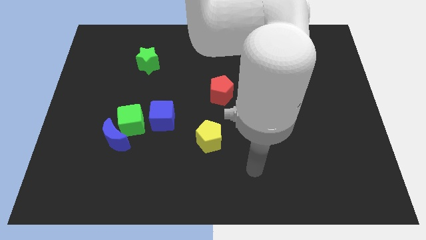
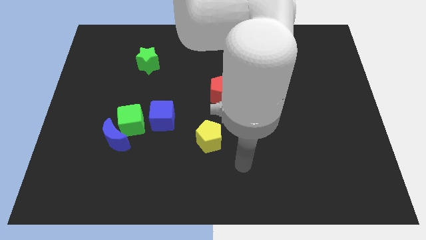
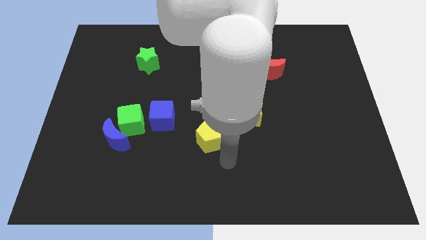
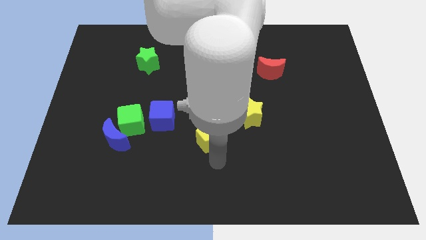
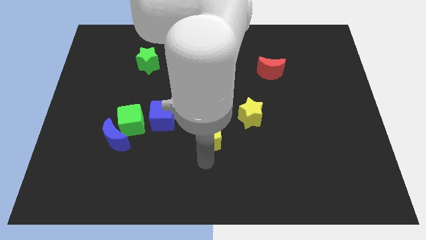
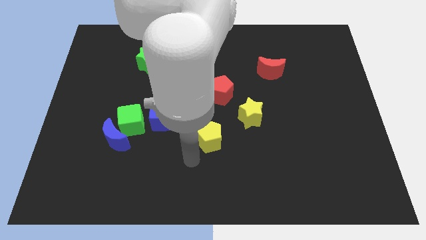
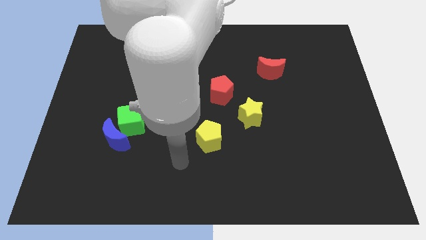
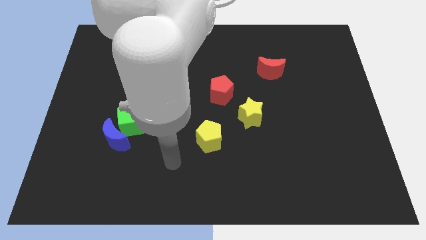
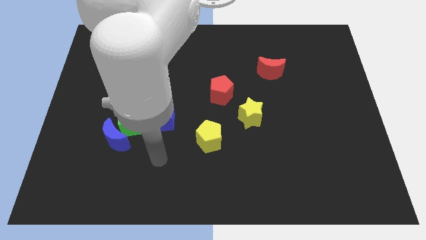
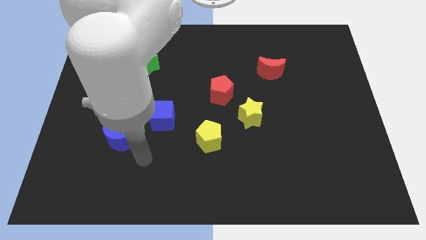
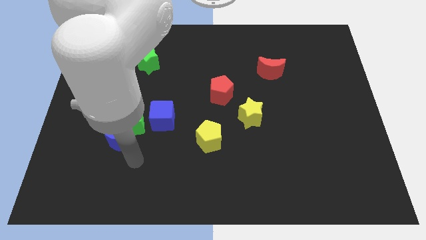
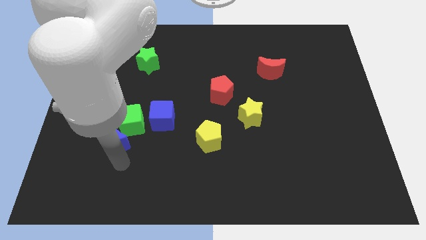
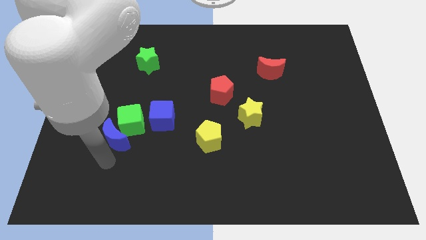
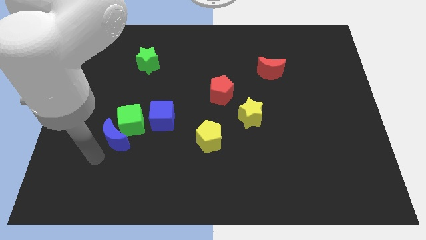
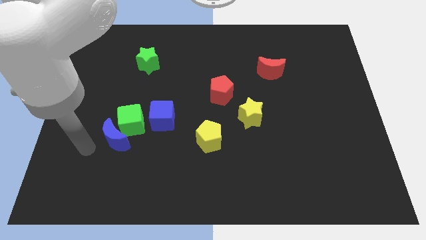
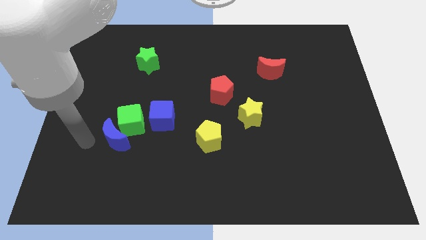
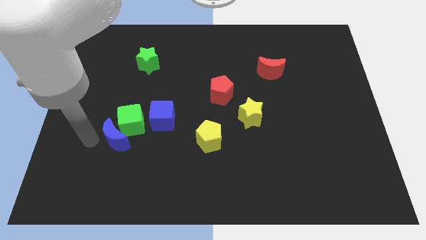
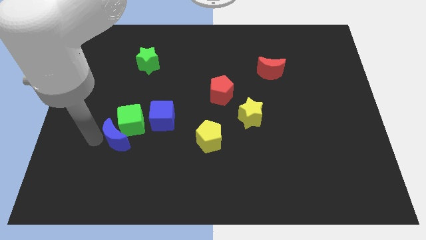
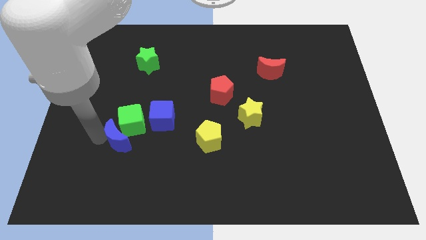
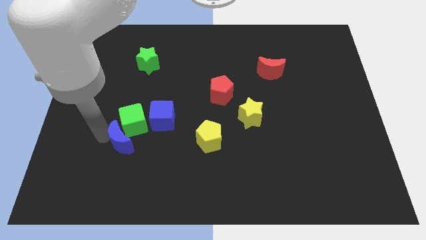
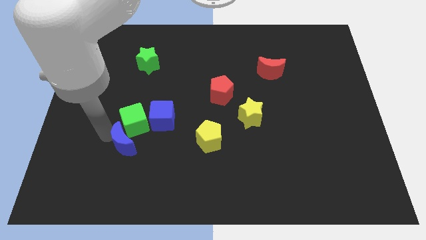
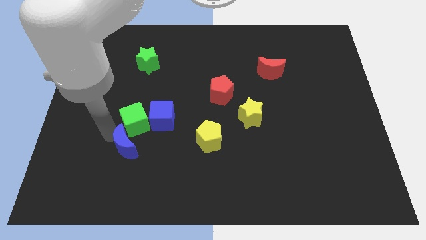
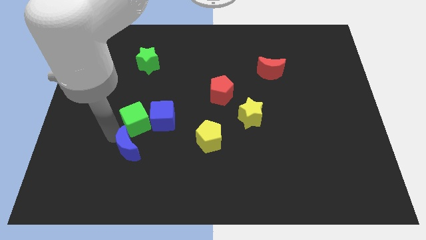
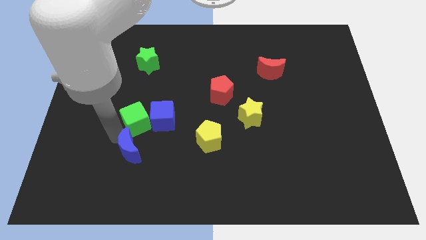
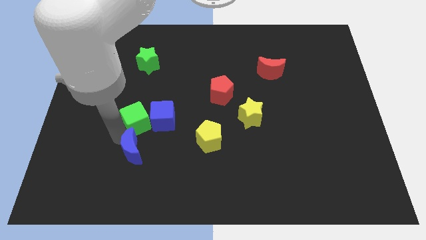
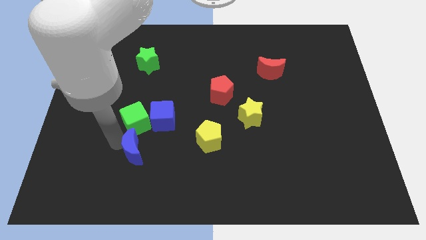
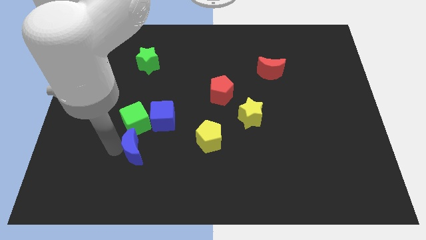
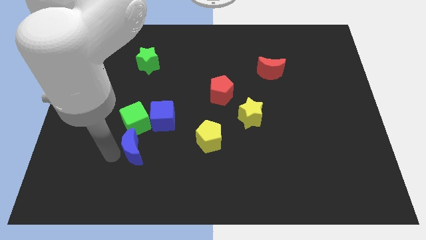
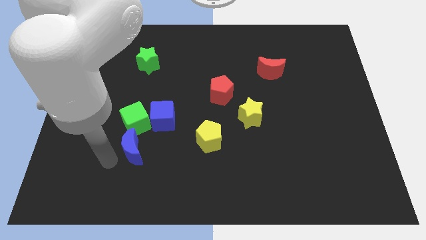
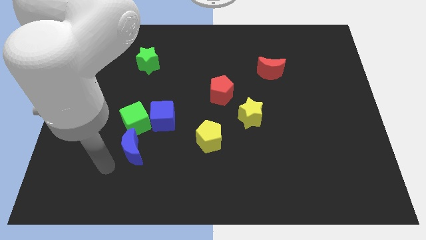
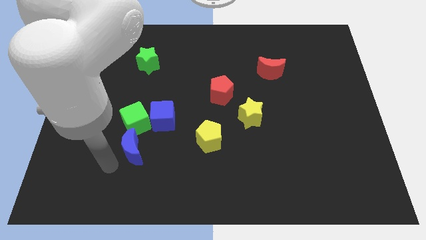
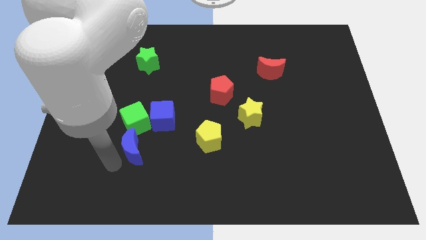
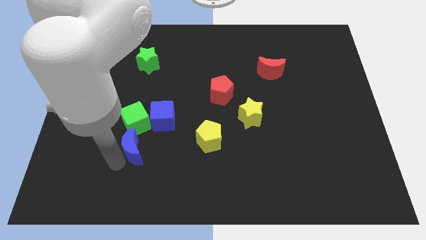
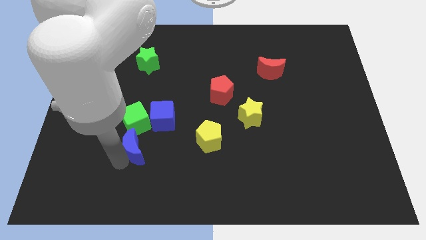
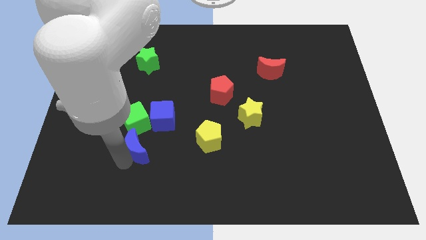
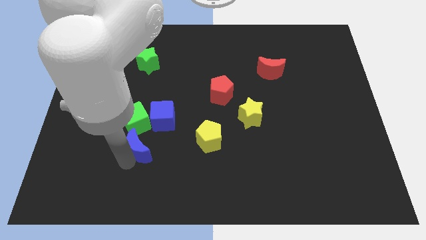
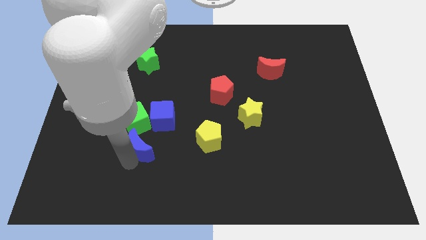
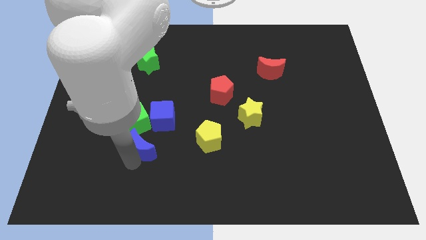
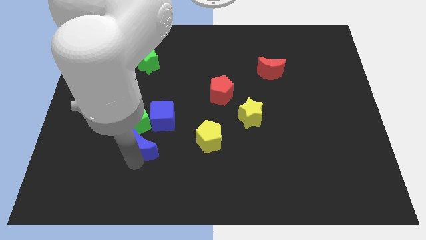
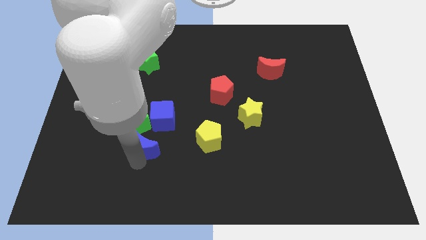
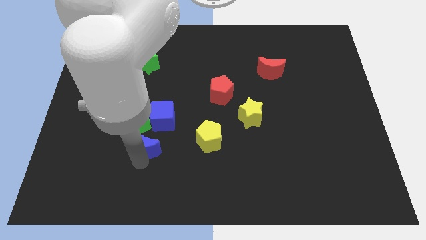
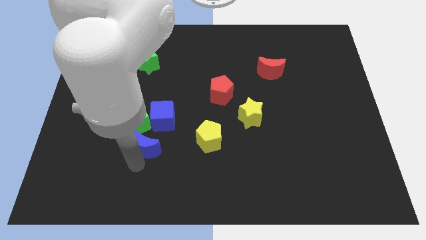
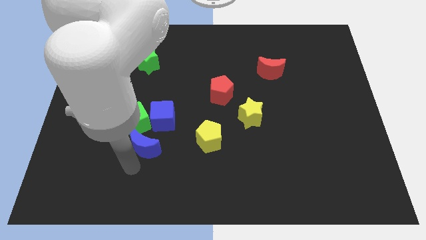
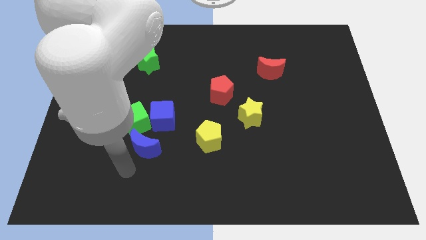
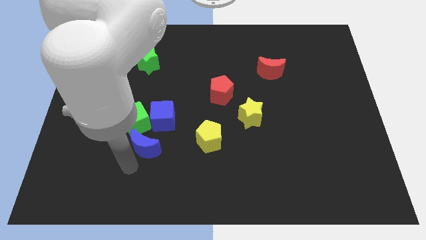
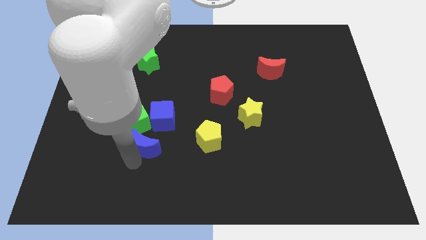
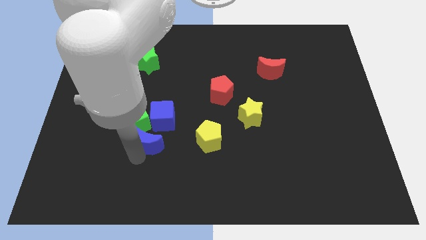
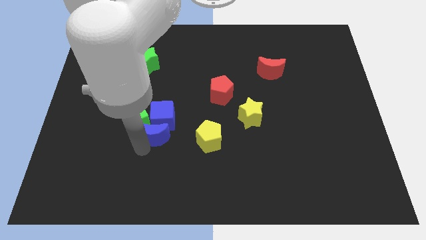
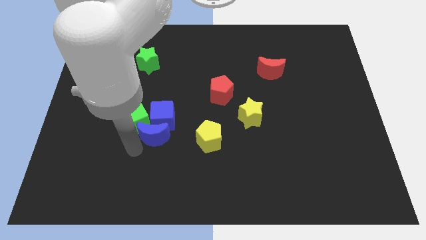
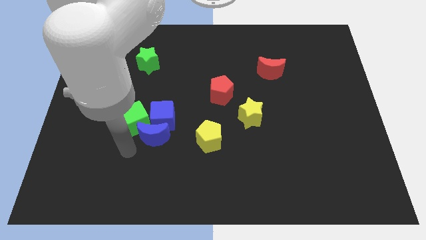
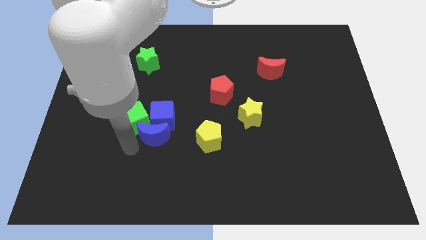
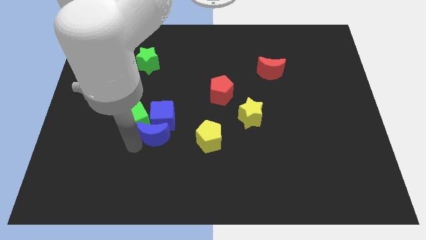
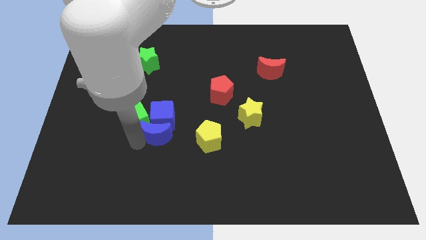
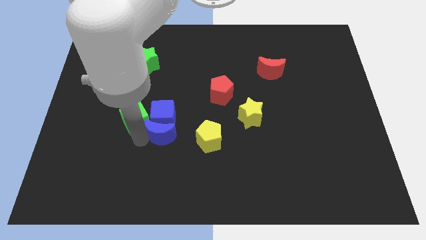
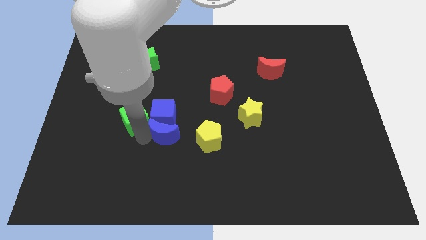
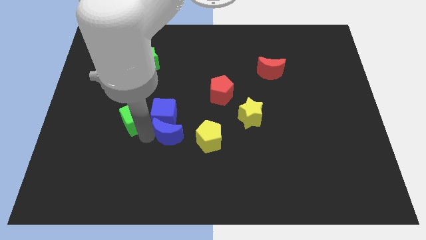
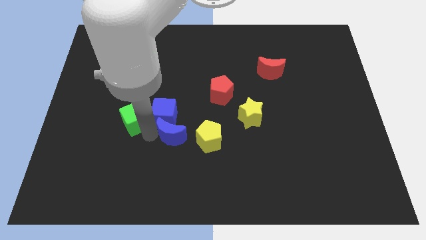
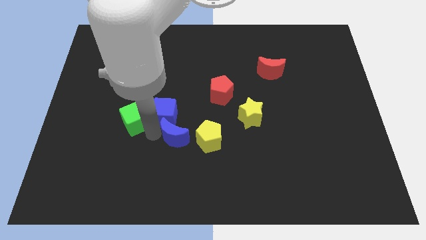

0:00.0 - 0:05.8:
put the blue moon diagonally up and to the left of the yellow pentagon

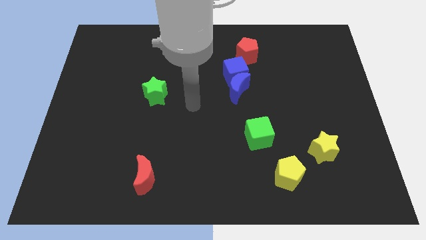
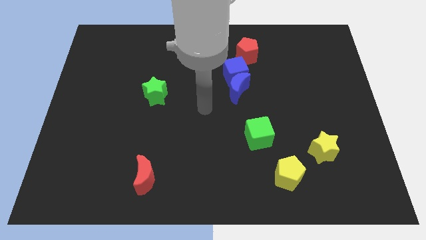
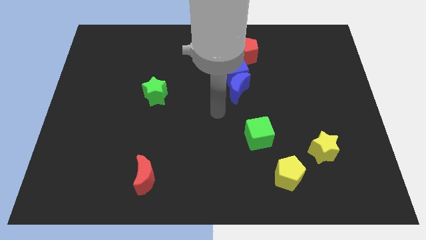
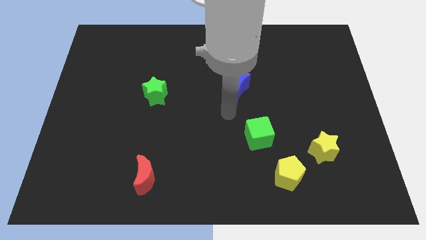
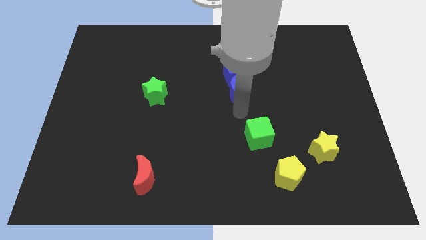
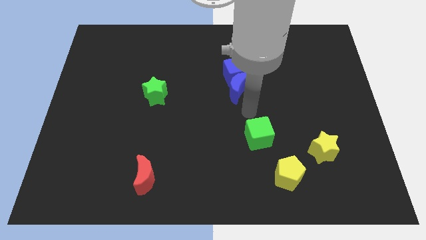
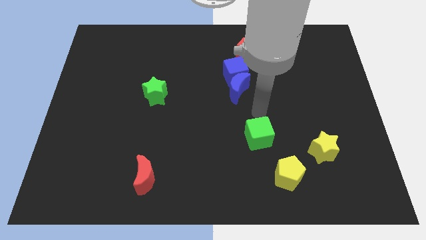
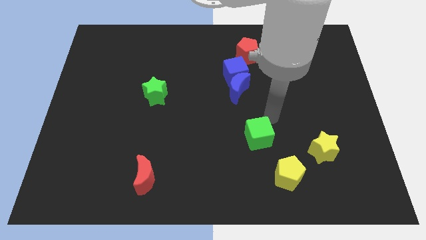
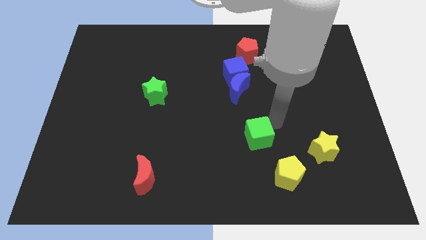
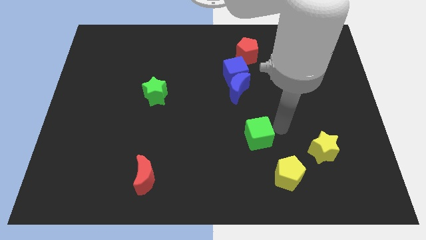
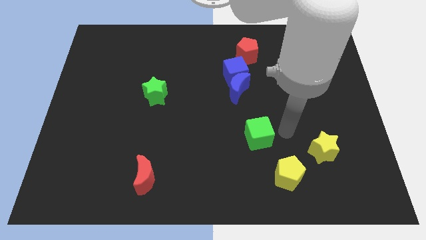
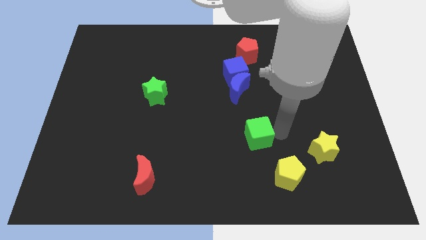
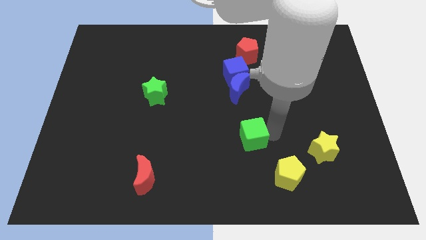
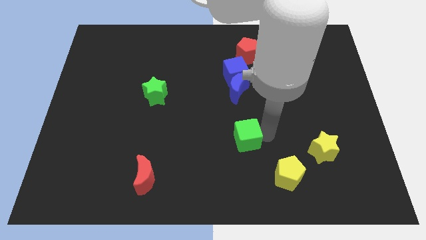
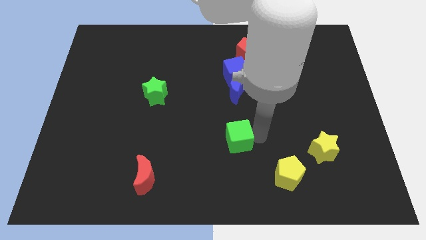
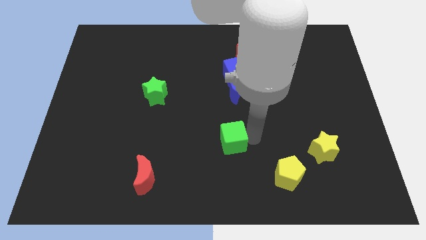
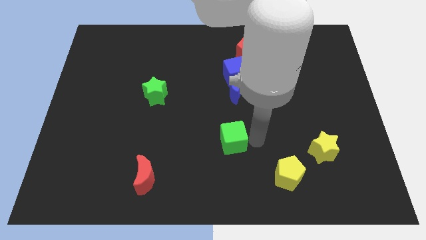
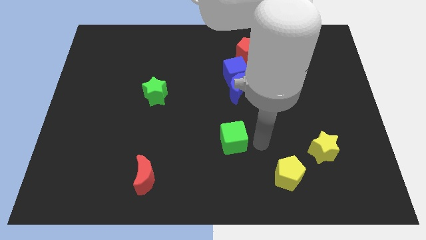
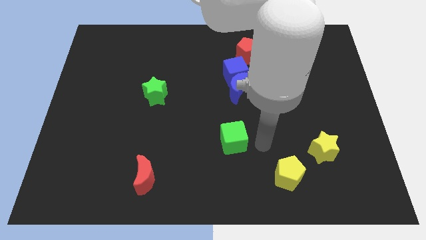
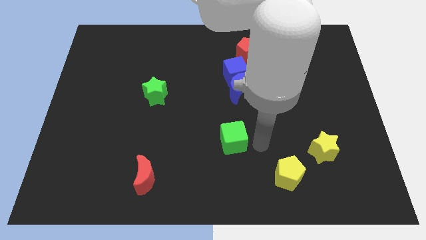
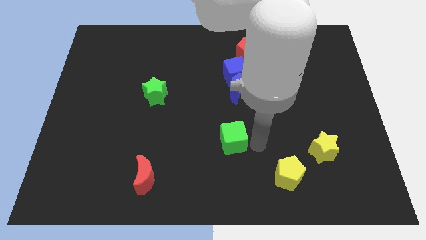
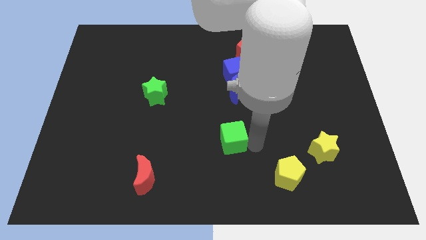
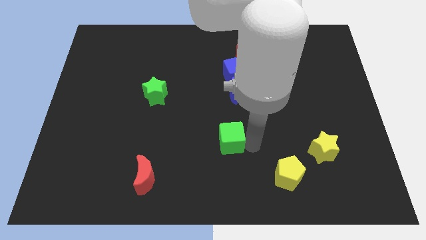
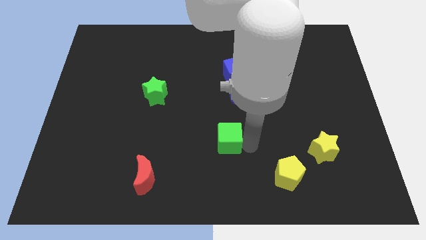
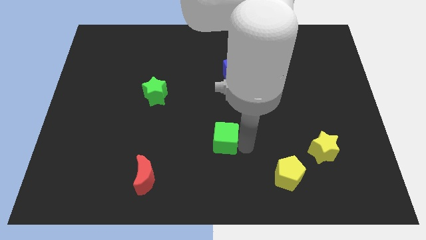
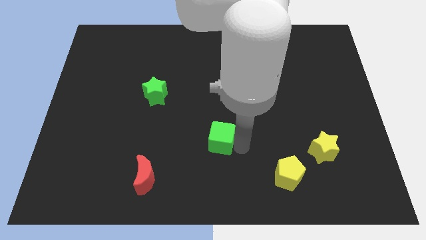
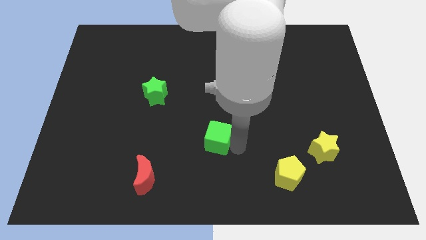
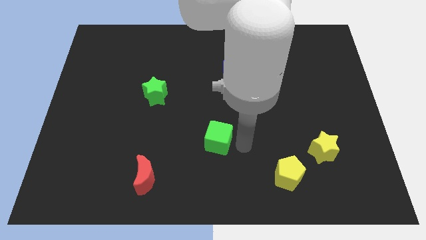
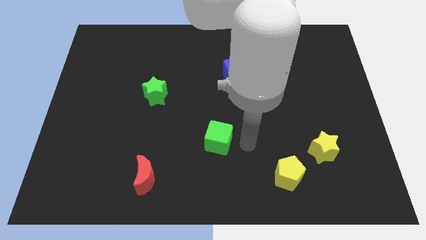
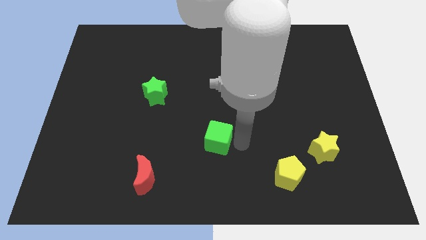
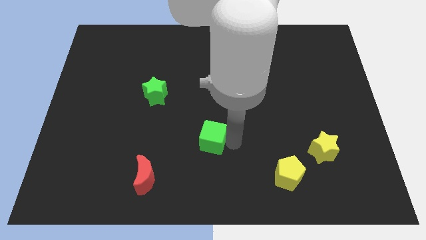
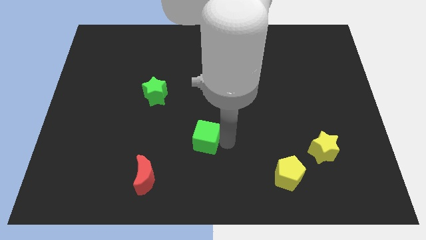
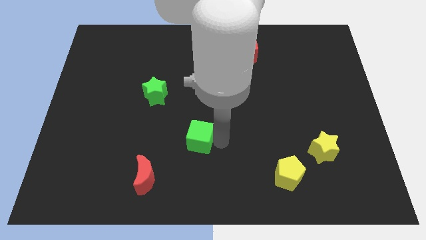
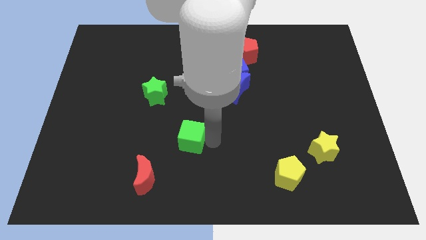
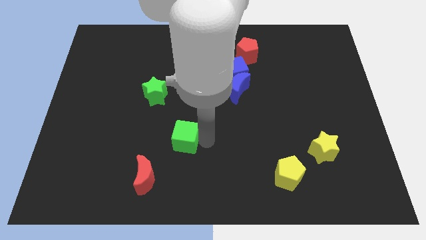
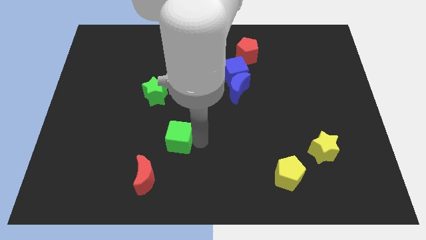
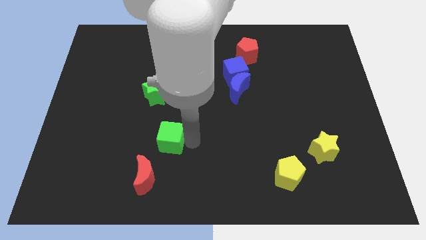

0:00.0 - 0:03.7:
slide the green cube below the green star
